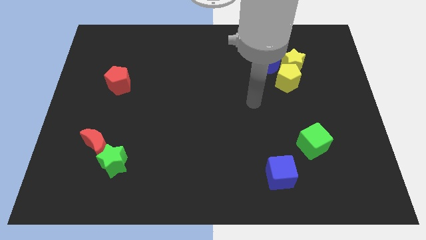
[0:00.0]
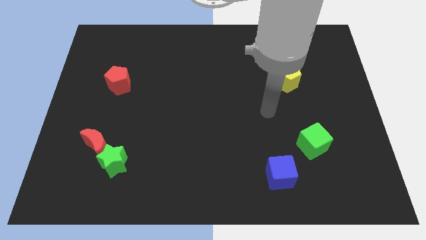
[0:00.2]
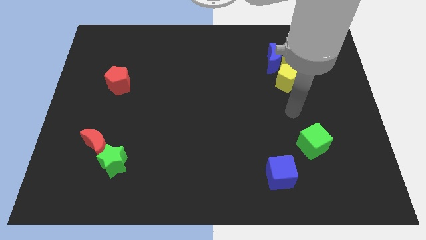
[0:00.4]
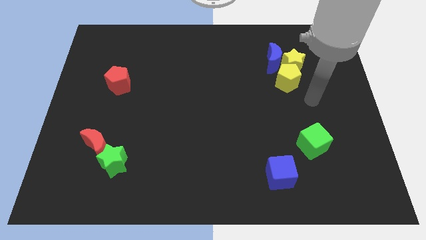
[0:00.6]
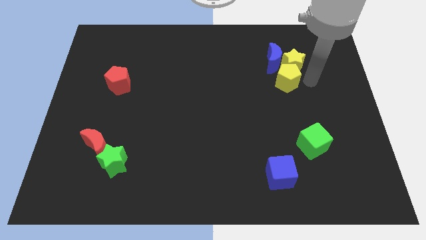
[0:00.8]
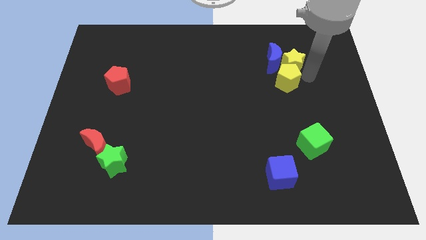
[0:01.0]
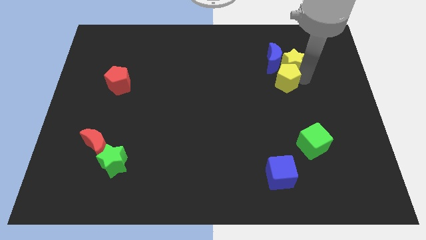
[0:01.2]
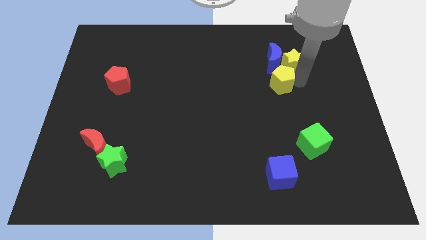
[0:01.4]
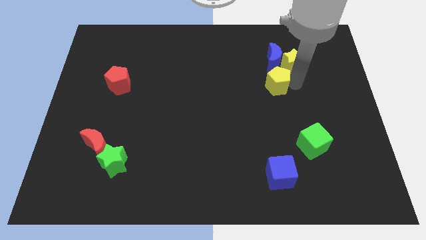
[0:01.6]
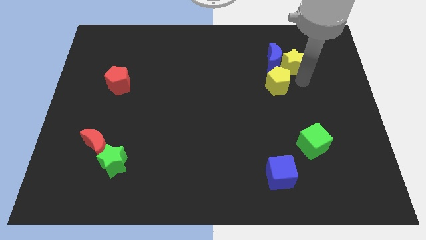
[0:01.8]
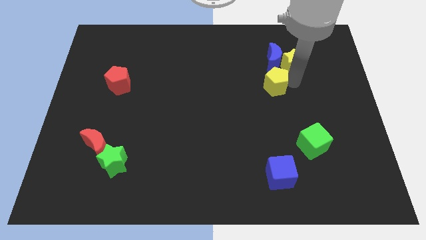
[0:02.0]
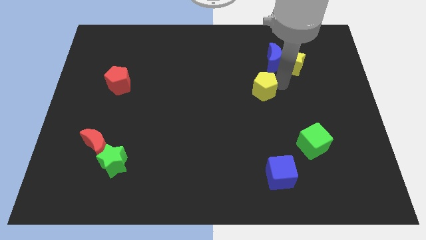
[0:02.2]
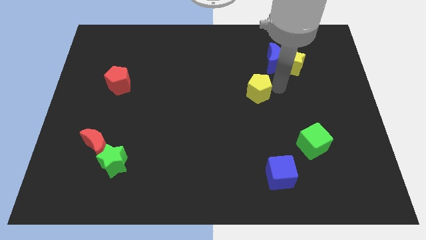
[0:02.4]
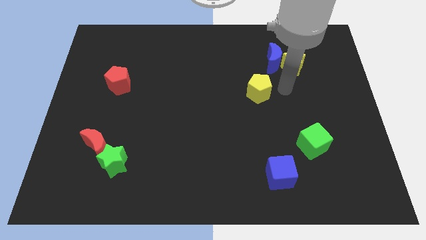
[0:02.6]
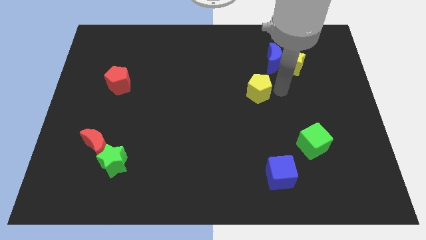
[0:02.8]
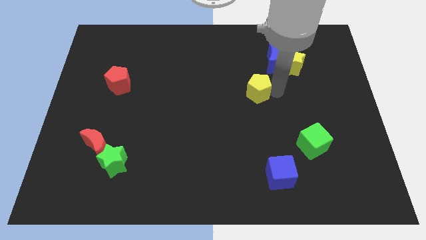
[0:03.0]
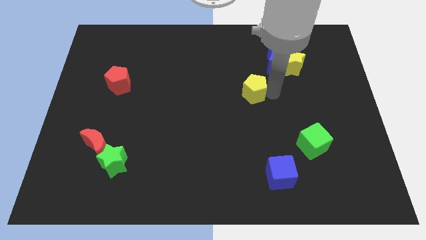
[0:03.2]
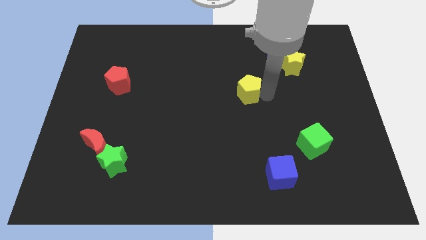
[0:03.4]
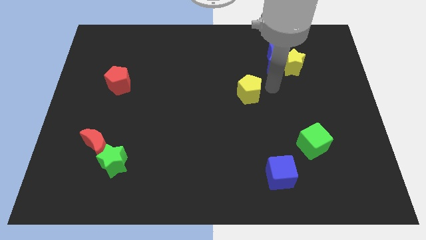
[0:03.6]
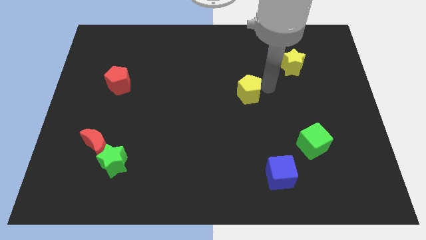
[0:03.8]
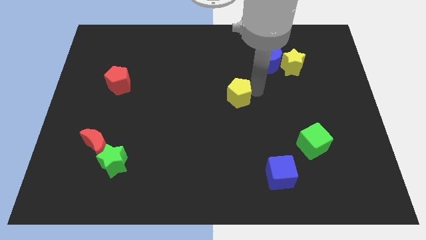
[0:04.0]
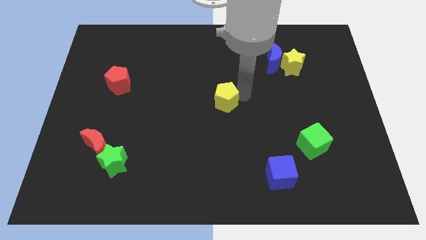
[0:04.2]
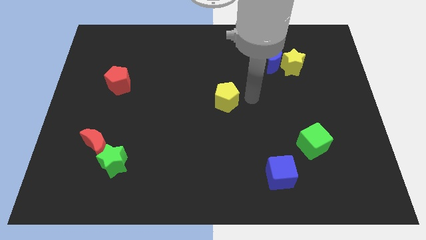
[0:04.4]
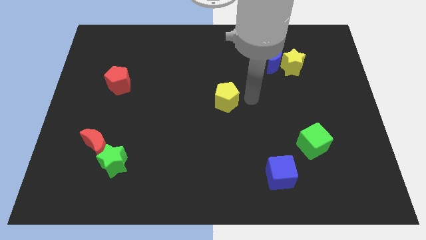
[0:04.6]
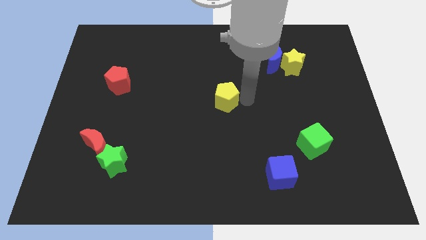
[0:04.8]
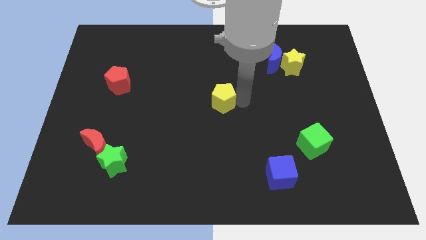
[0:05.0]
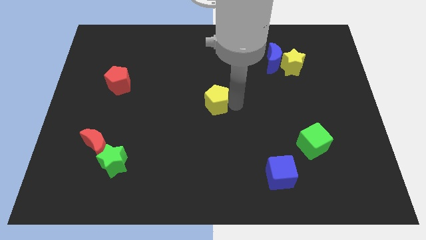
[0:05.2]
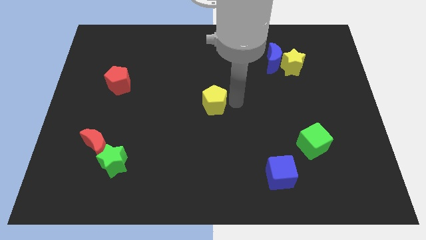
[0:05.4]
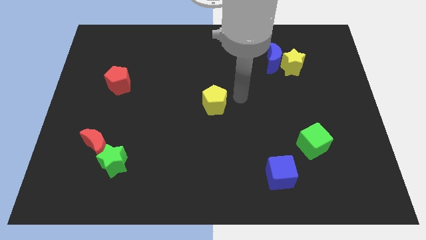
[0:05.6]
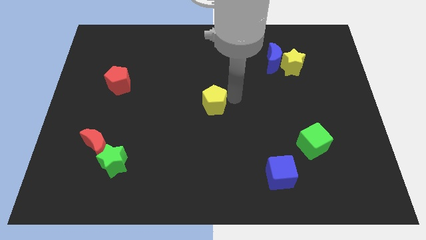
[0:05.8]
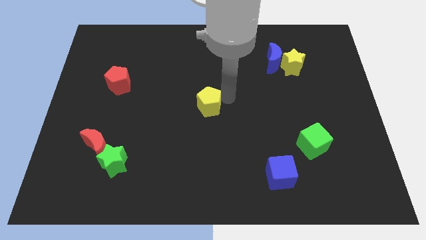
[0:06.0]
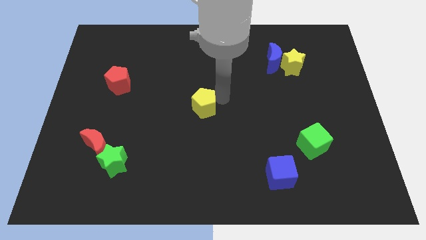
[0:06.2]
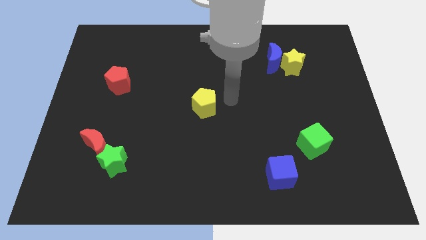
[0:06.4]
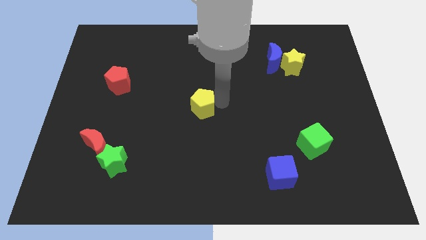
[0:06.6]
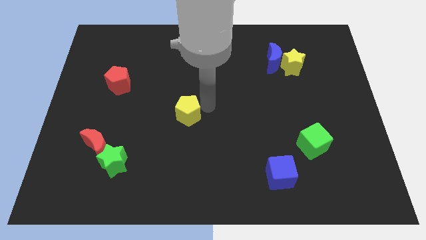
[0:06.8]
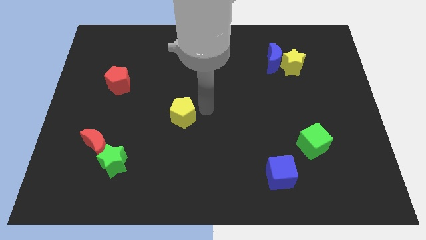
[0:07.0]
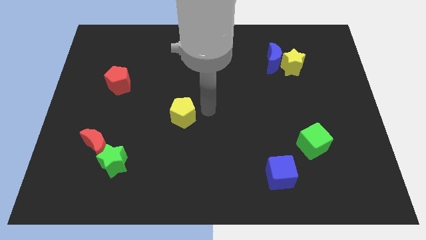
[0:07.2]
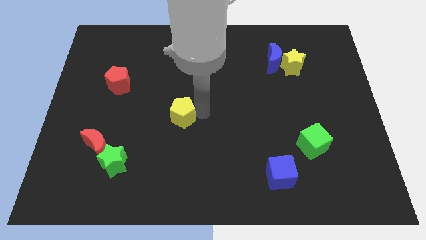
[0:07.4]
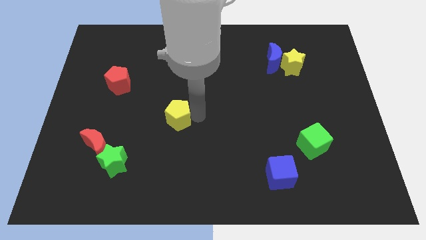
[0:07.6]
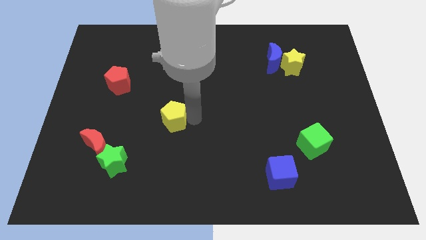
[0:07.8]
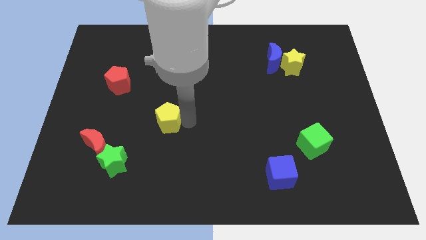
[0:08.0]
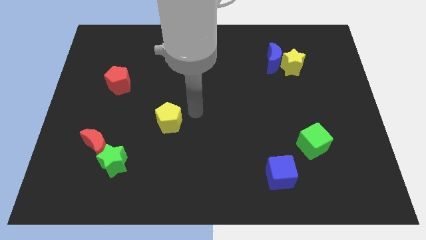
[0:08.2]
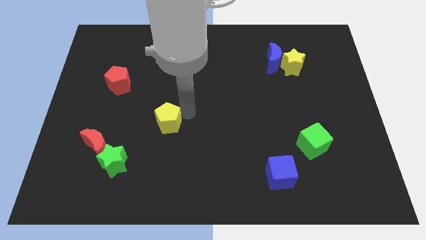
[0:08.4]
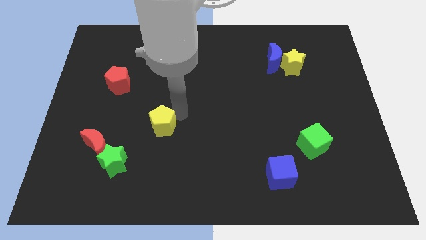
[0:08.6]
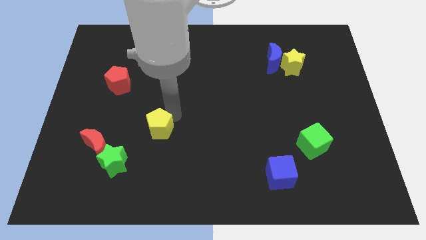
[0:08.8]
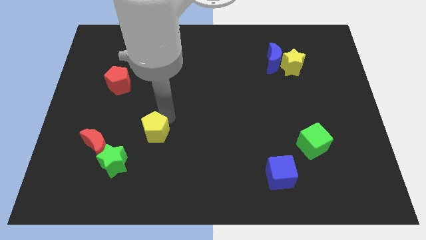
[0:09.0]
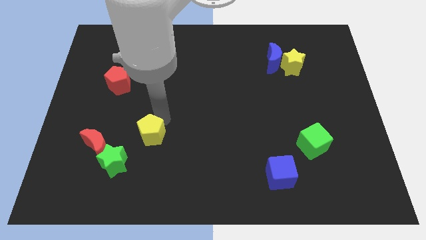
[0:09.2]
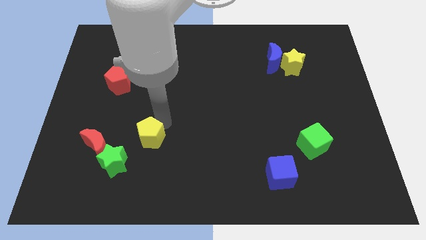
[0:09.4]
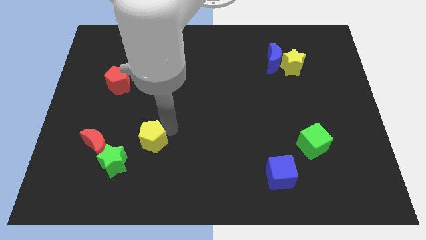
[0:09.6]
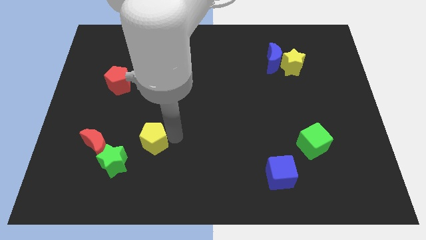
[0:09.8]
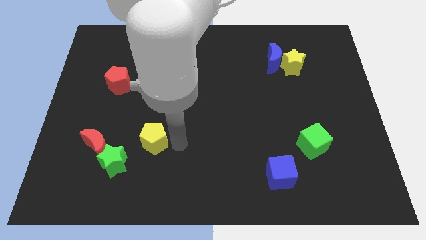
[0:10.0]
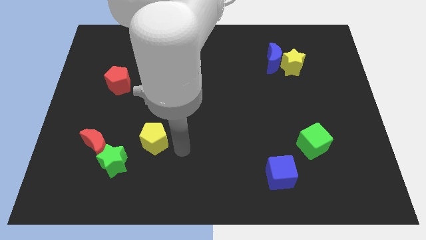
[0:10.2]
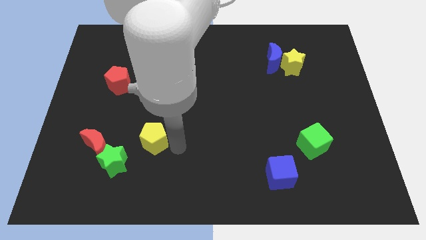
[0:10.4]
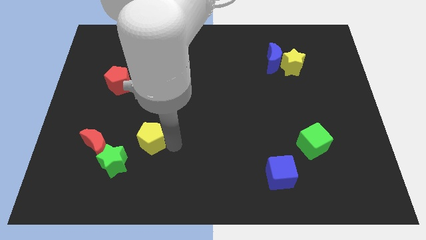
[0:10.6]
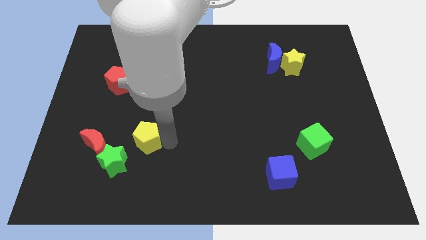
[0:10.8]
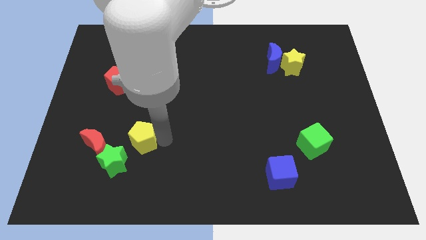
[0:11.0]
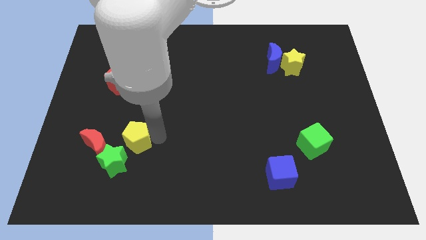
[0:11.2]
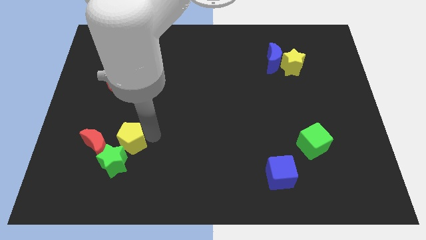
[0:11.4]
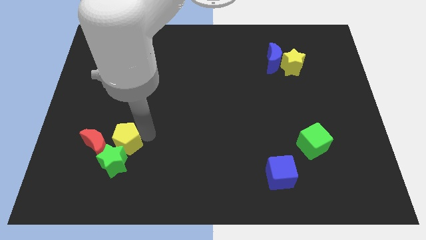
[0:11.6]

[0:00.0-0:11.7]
push the yellow pentagon to the red moon

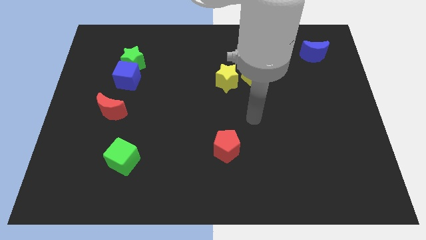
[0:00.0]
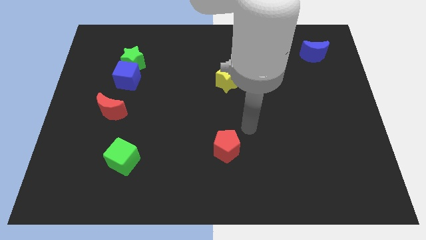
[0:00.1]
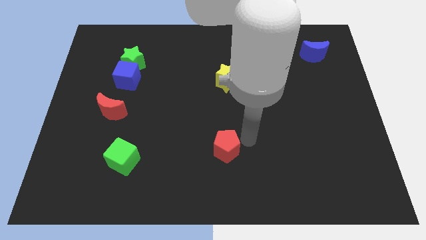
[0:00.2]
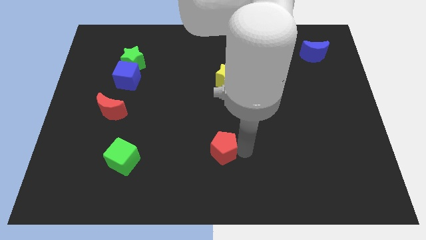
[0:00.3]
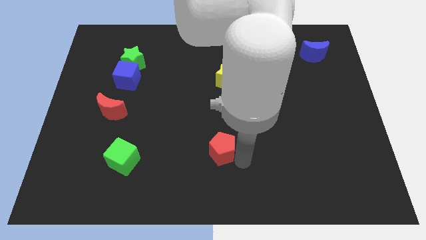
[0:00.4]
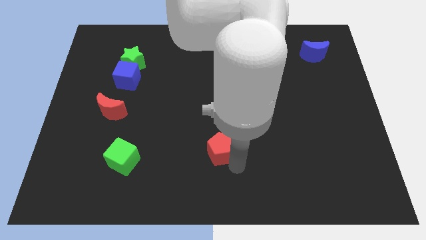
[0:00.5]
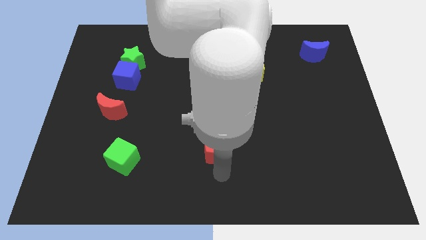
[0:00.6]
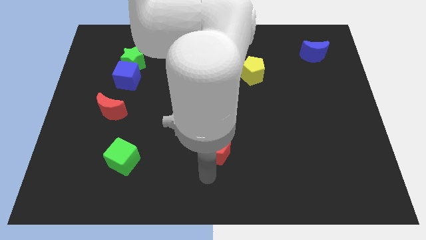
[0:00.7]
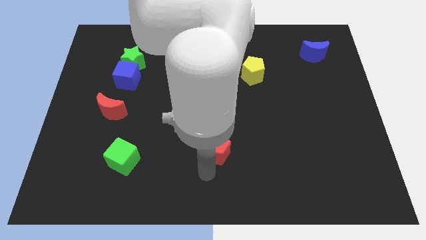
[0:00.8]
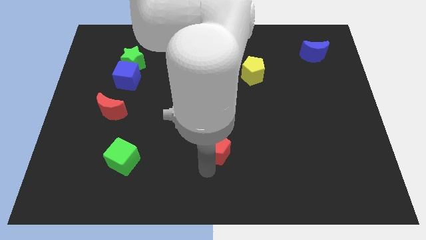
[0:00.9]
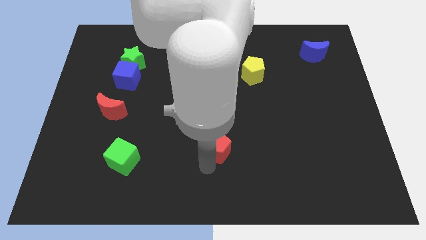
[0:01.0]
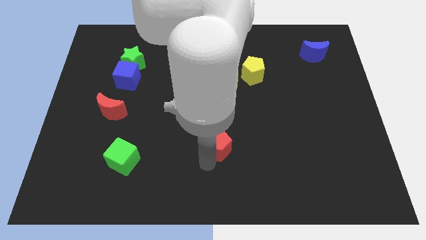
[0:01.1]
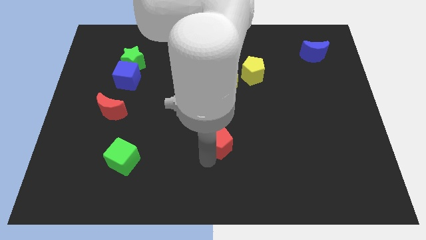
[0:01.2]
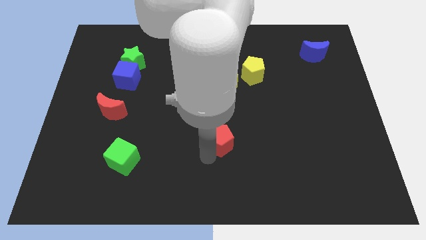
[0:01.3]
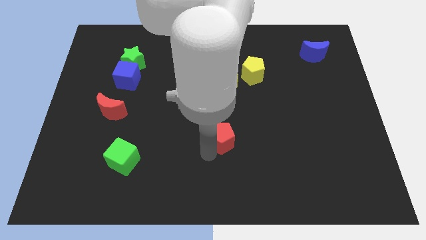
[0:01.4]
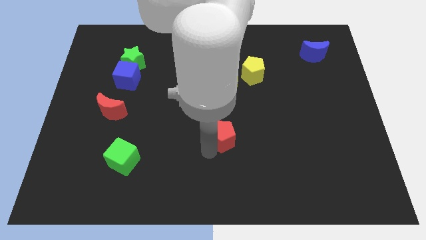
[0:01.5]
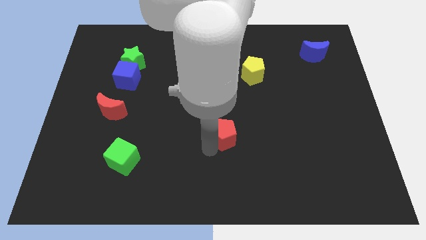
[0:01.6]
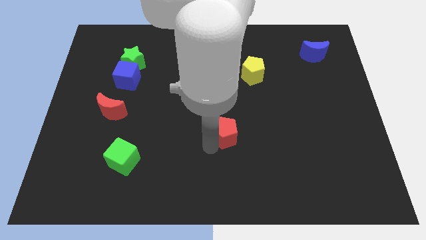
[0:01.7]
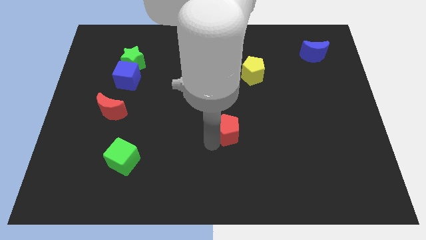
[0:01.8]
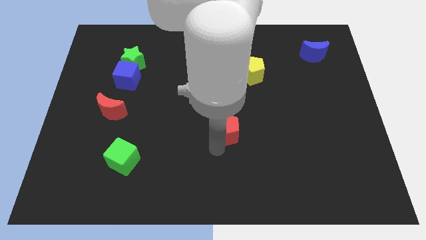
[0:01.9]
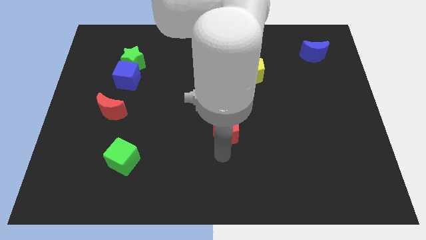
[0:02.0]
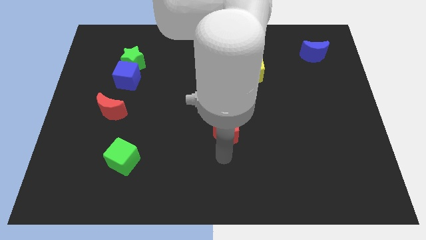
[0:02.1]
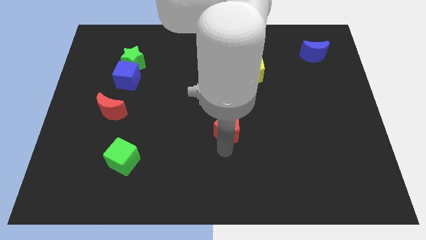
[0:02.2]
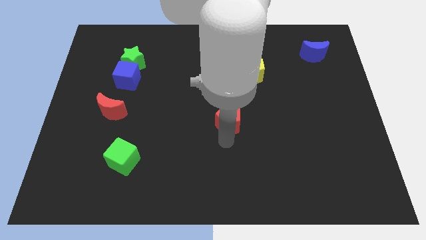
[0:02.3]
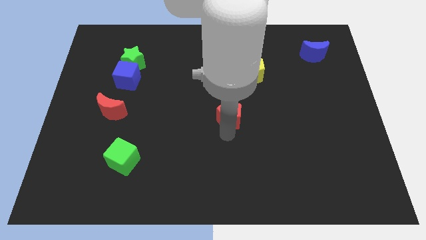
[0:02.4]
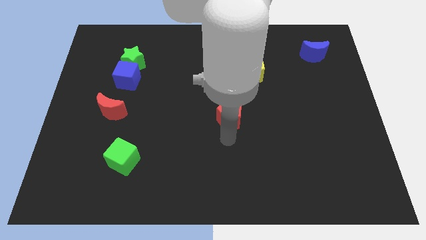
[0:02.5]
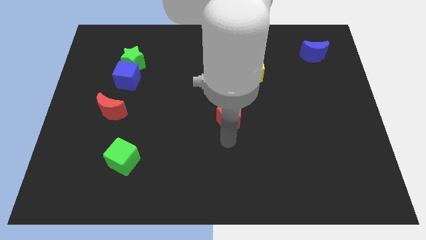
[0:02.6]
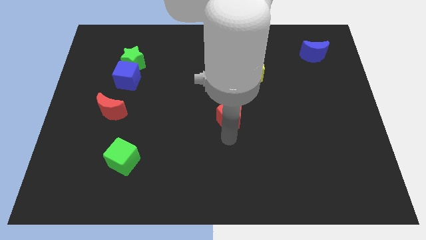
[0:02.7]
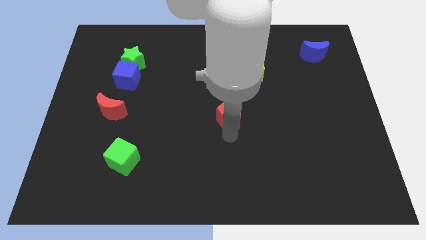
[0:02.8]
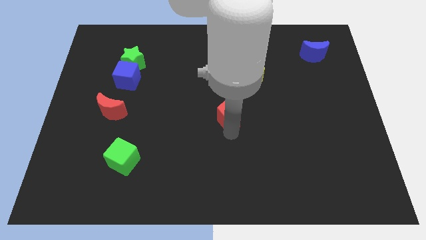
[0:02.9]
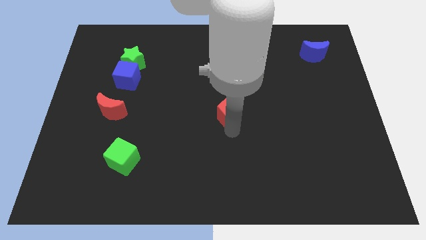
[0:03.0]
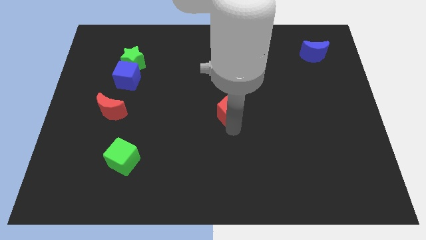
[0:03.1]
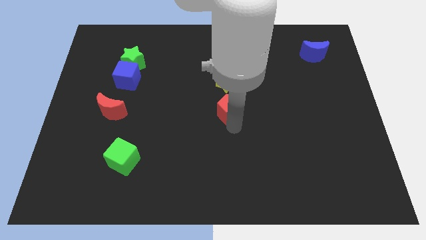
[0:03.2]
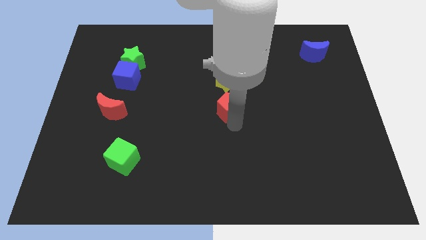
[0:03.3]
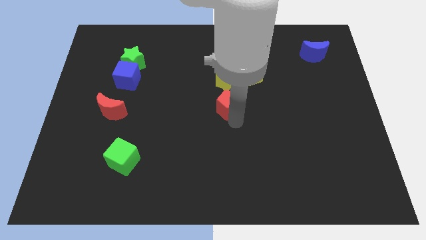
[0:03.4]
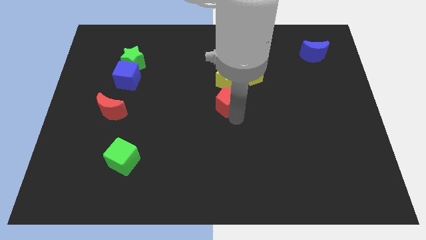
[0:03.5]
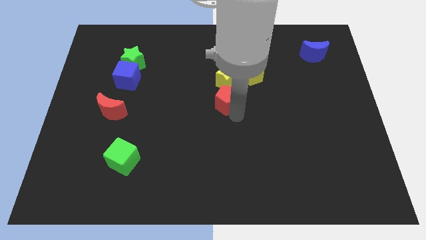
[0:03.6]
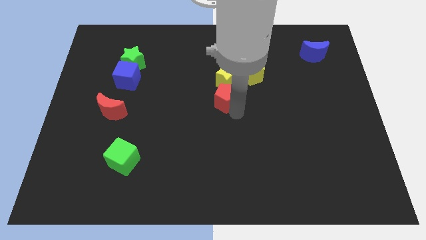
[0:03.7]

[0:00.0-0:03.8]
push the red pentagon towards the yellow star
